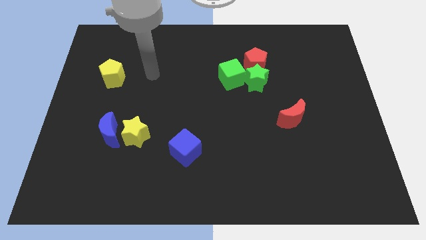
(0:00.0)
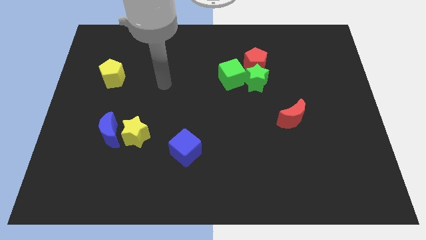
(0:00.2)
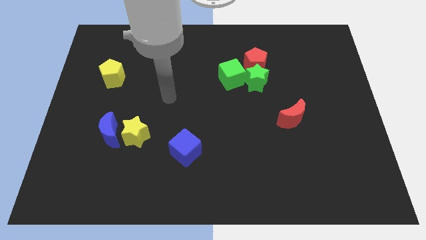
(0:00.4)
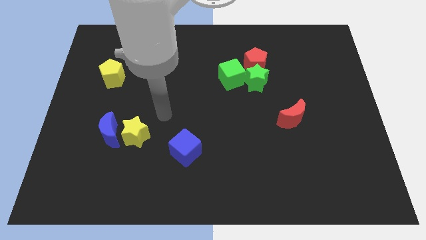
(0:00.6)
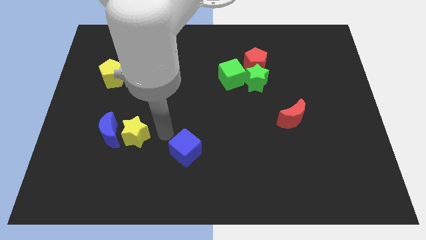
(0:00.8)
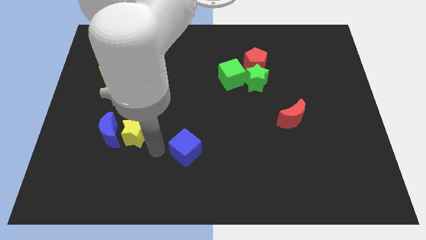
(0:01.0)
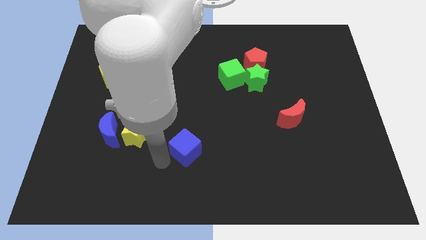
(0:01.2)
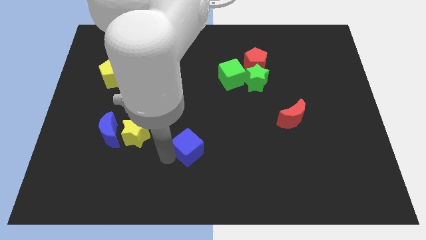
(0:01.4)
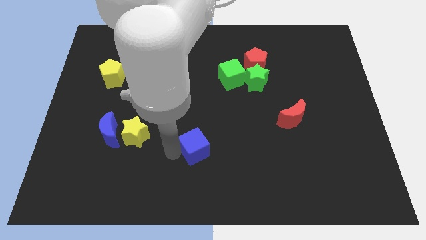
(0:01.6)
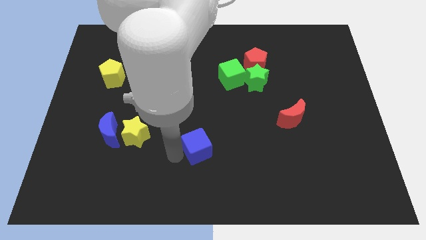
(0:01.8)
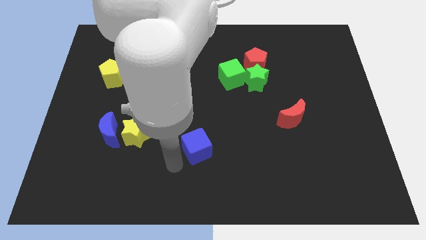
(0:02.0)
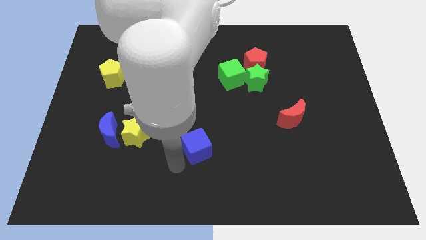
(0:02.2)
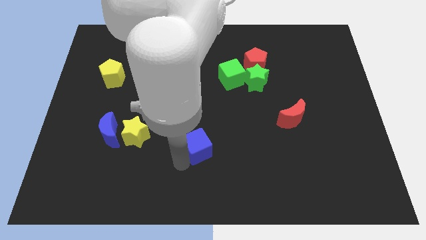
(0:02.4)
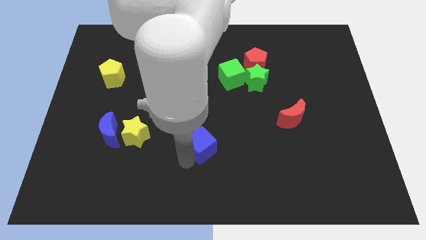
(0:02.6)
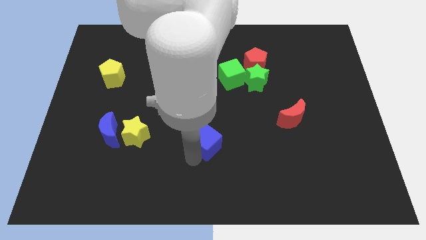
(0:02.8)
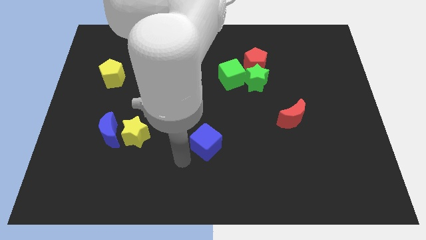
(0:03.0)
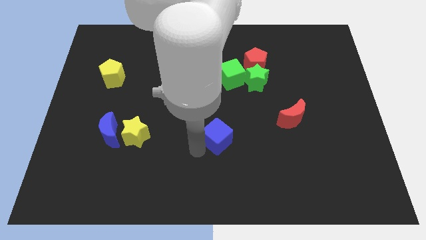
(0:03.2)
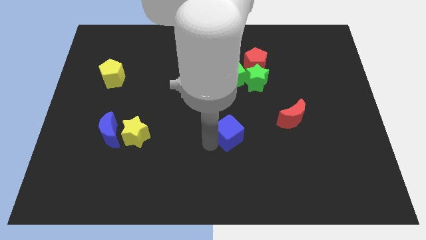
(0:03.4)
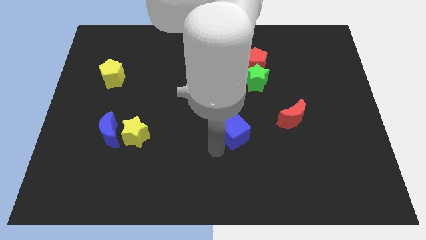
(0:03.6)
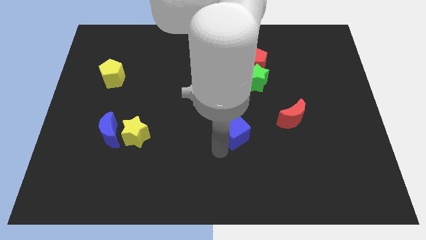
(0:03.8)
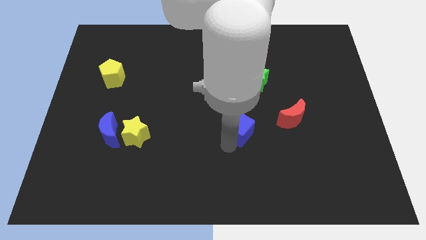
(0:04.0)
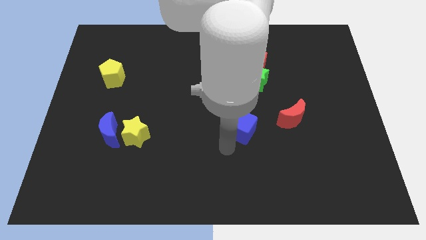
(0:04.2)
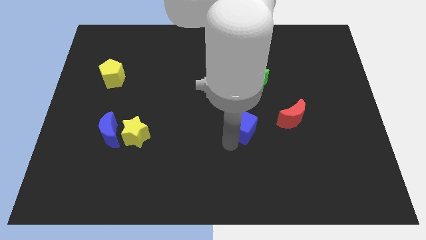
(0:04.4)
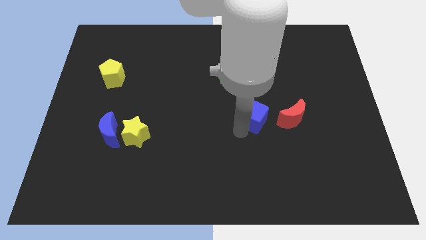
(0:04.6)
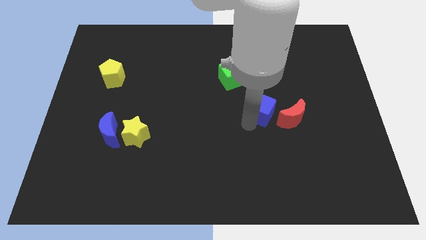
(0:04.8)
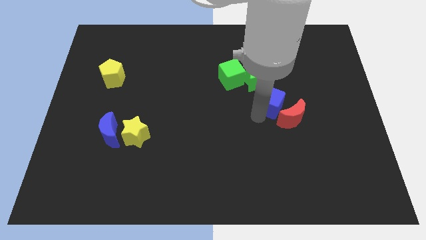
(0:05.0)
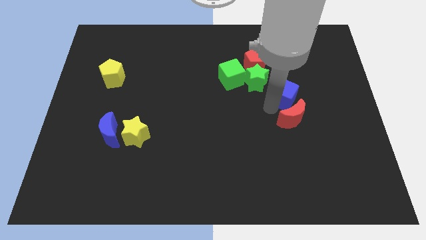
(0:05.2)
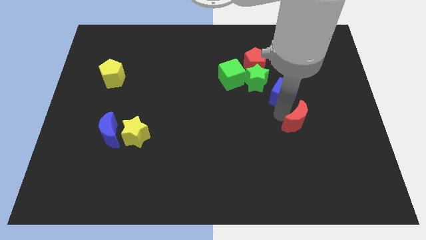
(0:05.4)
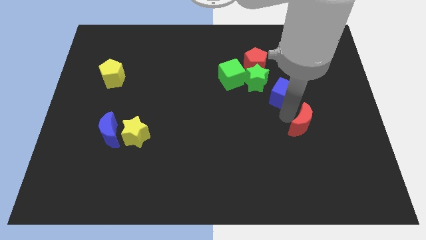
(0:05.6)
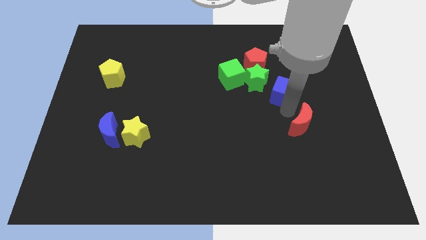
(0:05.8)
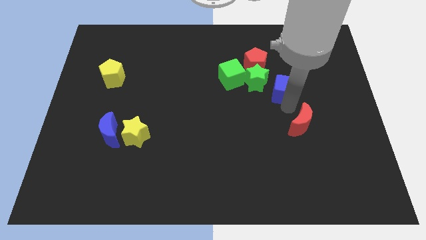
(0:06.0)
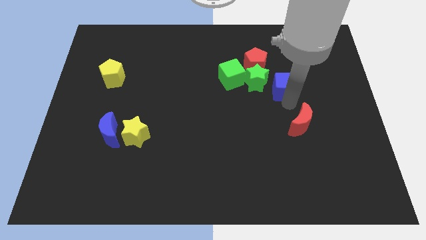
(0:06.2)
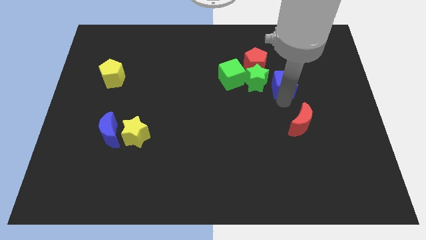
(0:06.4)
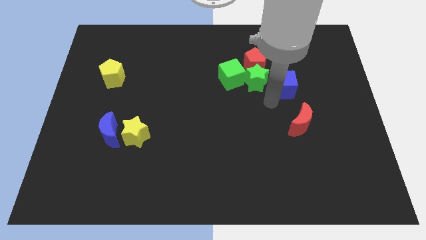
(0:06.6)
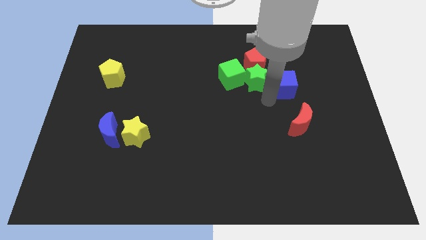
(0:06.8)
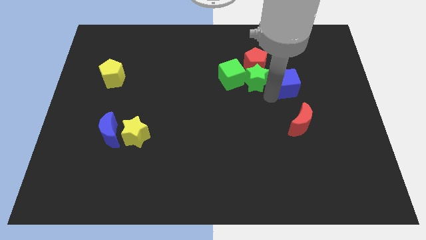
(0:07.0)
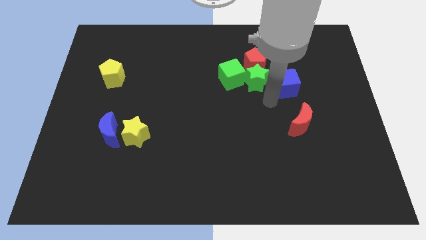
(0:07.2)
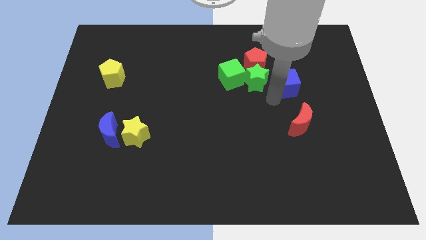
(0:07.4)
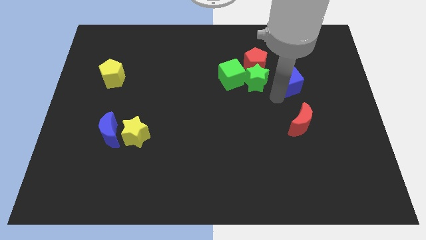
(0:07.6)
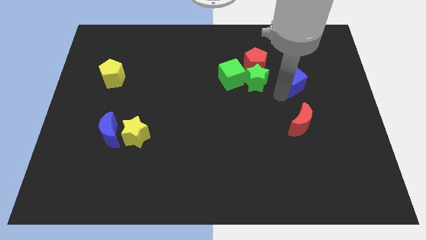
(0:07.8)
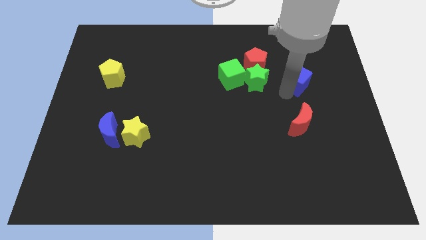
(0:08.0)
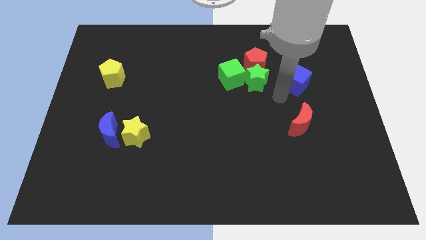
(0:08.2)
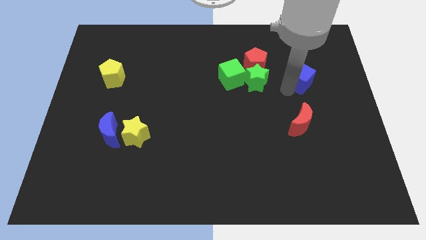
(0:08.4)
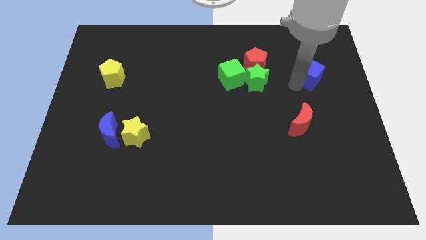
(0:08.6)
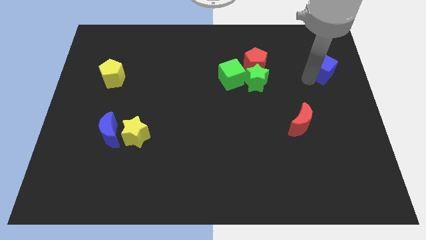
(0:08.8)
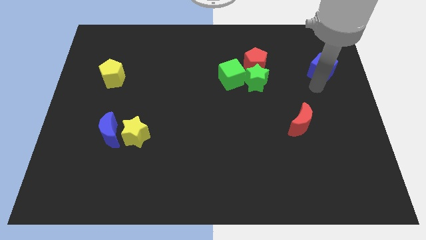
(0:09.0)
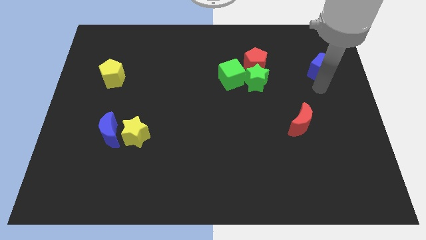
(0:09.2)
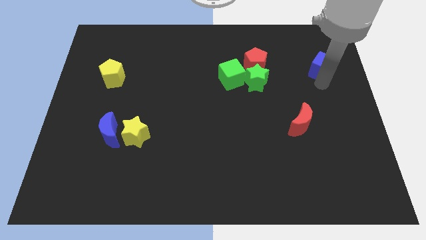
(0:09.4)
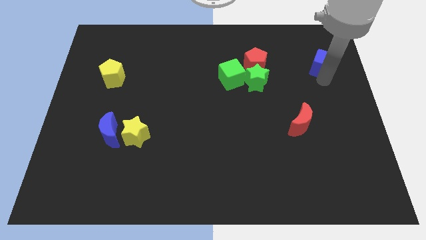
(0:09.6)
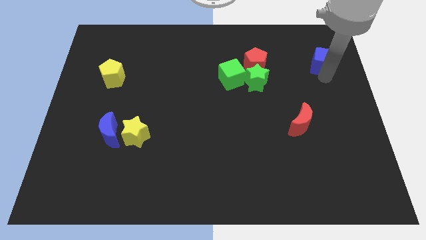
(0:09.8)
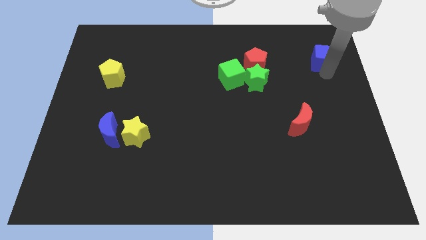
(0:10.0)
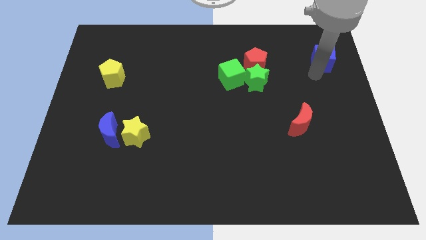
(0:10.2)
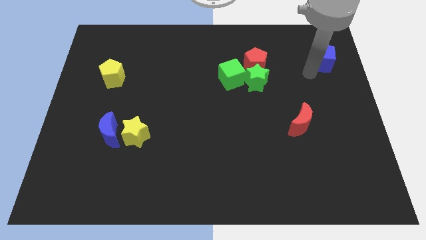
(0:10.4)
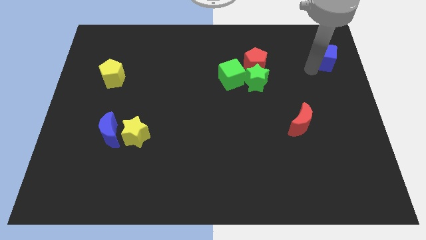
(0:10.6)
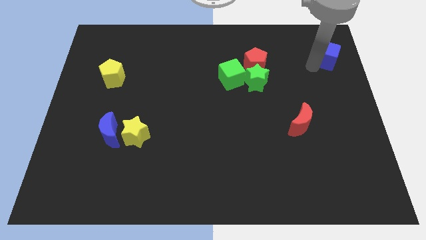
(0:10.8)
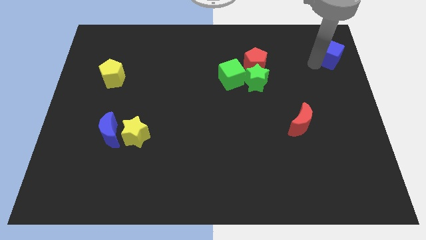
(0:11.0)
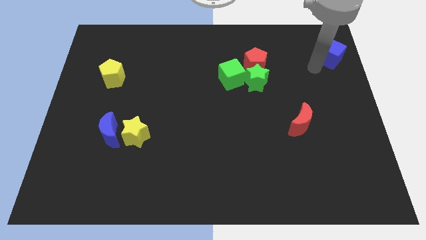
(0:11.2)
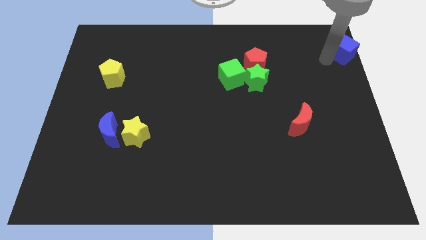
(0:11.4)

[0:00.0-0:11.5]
slide the blue cube to the top right of the board
